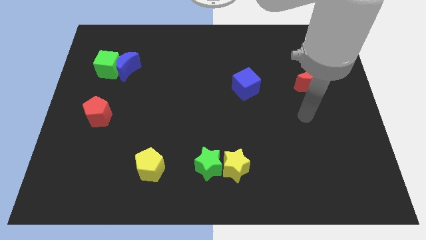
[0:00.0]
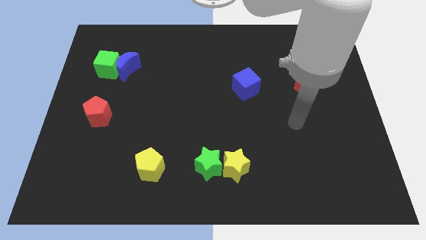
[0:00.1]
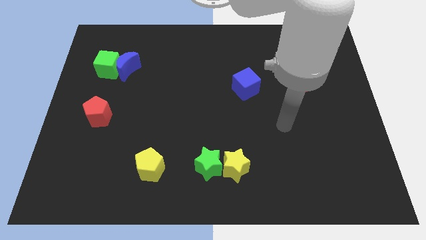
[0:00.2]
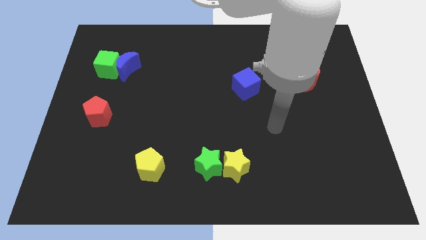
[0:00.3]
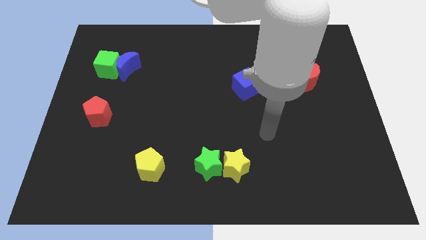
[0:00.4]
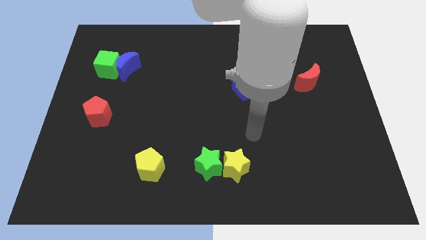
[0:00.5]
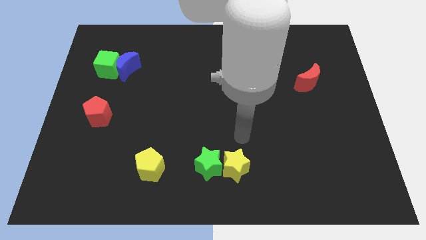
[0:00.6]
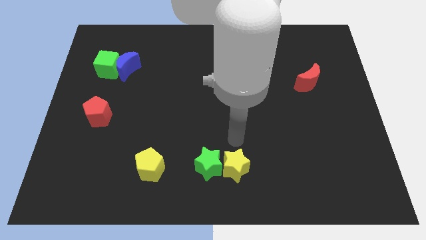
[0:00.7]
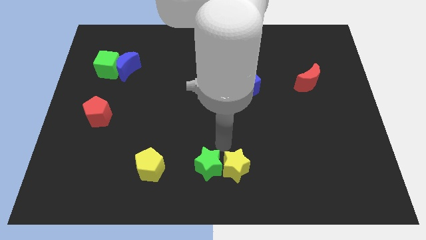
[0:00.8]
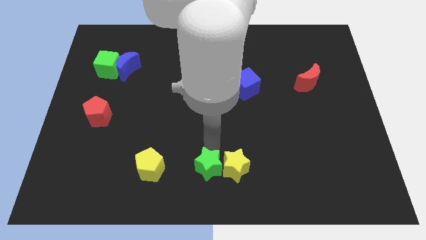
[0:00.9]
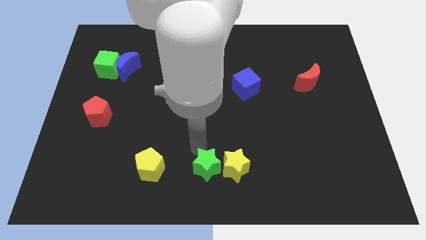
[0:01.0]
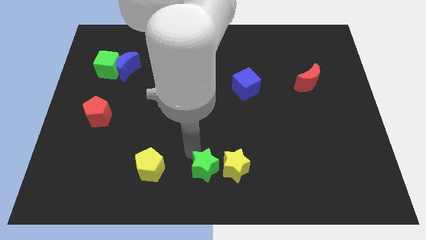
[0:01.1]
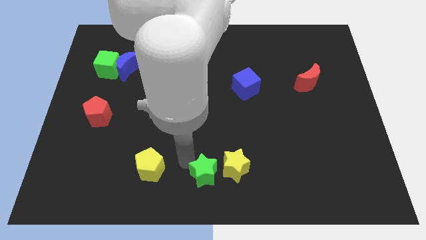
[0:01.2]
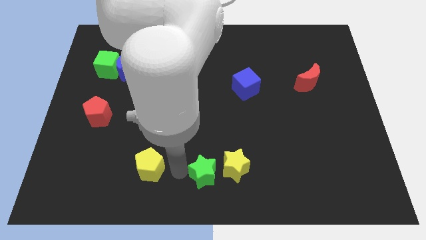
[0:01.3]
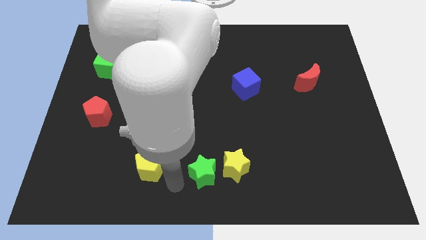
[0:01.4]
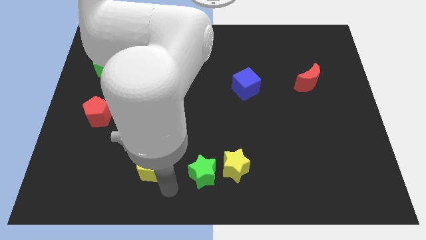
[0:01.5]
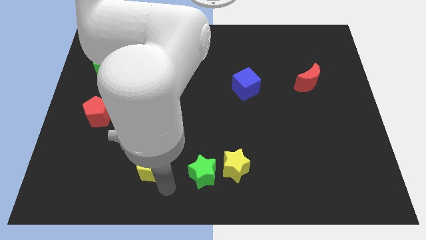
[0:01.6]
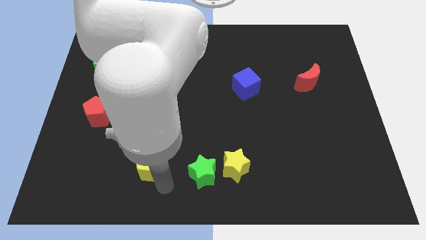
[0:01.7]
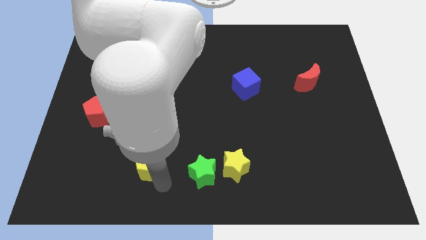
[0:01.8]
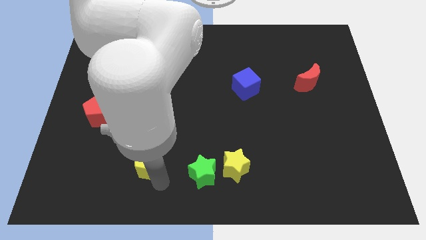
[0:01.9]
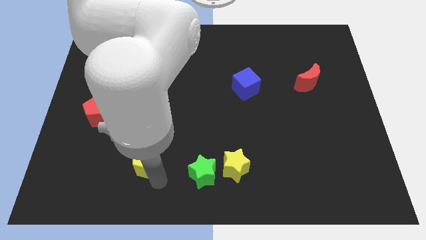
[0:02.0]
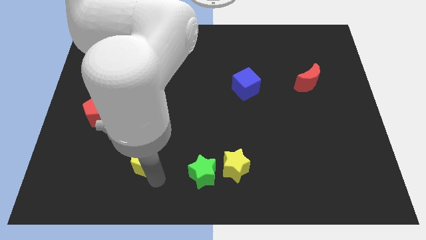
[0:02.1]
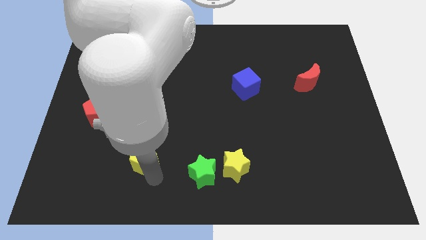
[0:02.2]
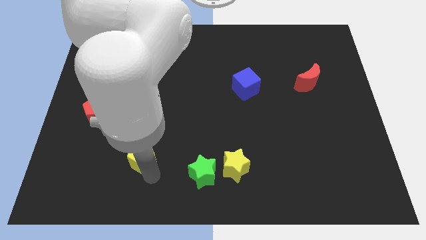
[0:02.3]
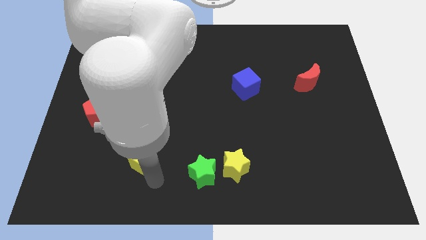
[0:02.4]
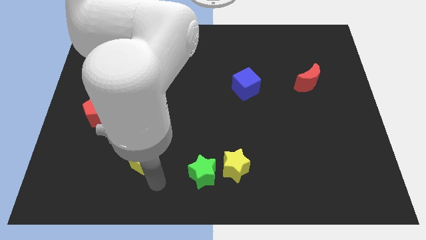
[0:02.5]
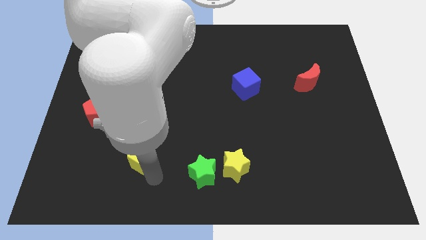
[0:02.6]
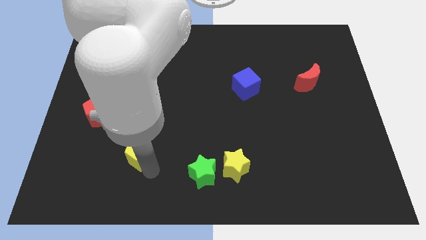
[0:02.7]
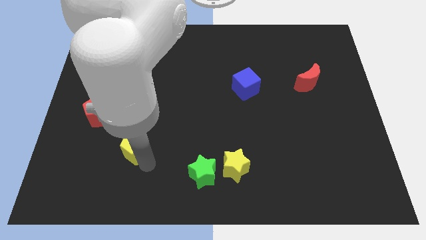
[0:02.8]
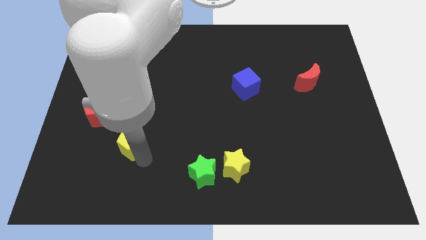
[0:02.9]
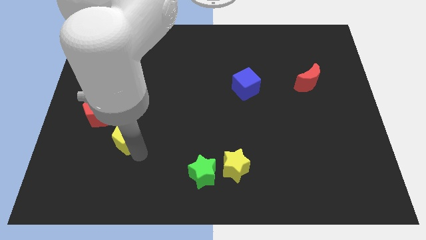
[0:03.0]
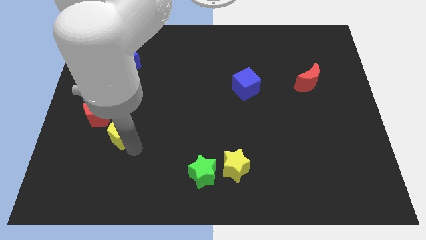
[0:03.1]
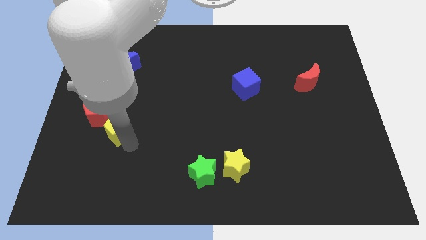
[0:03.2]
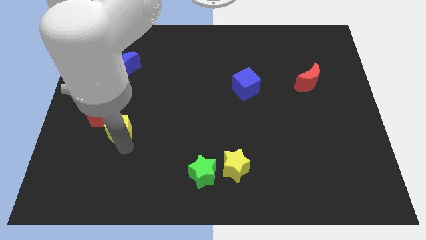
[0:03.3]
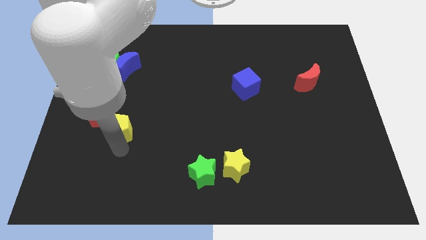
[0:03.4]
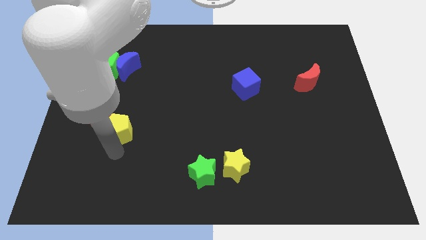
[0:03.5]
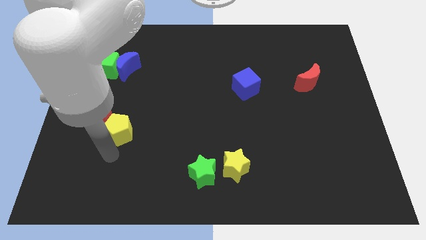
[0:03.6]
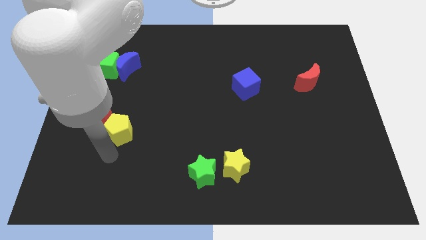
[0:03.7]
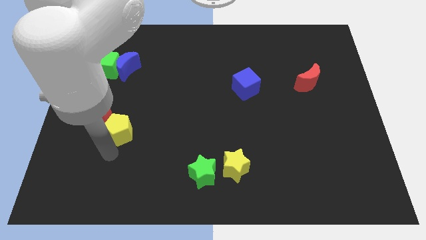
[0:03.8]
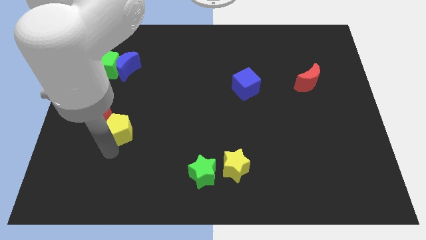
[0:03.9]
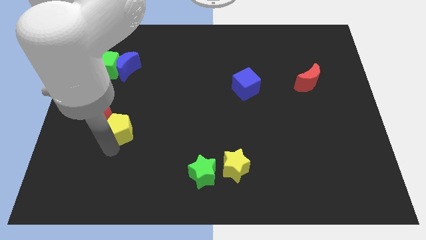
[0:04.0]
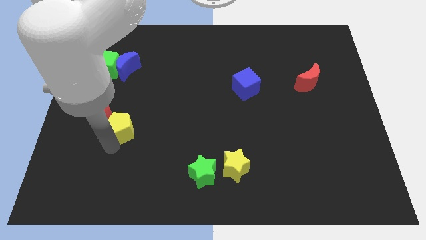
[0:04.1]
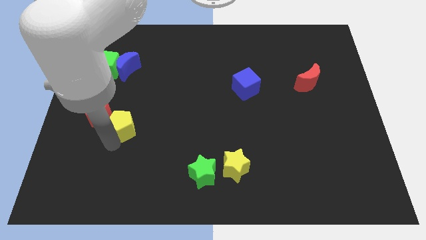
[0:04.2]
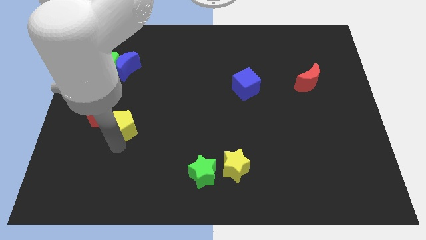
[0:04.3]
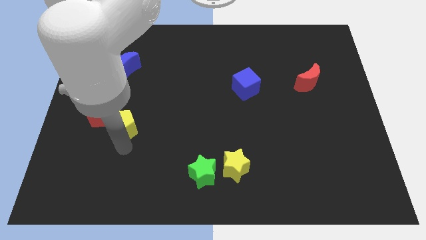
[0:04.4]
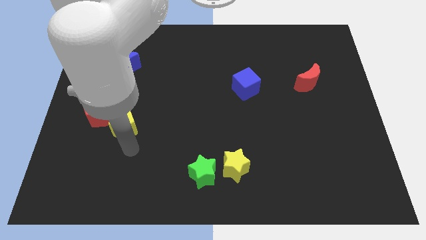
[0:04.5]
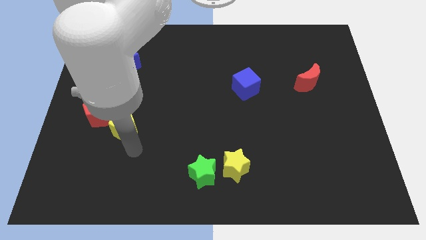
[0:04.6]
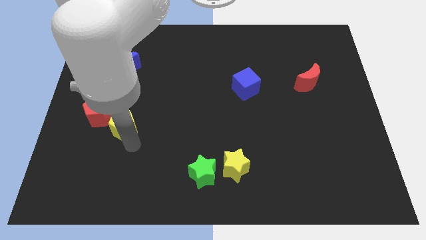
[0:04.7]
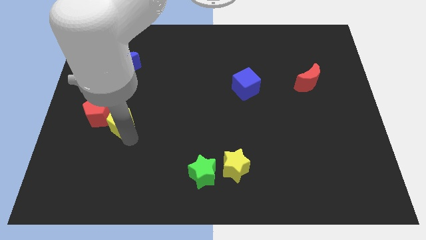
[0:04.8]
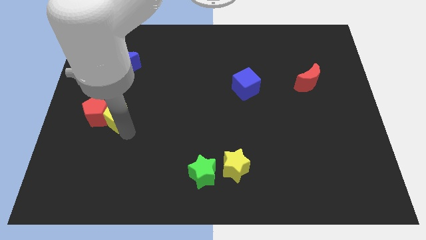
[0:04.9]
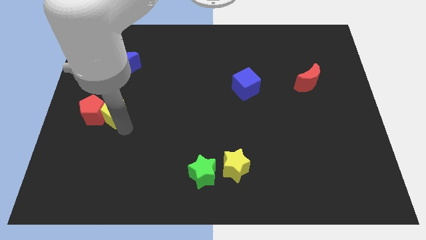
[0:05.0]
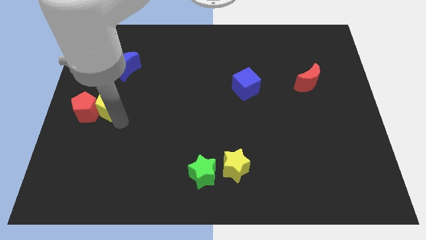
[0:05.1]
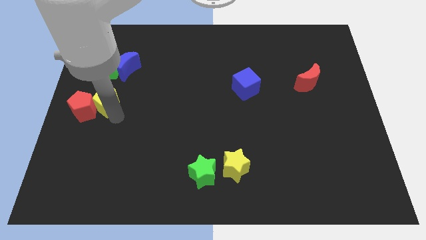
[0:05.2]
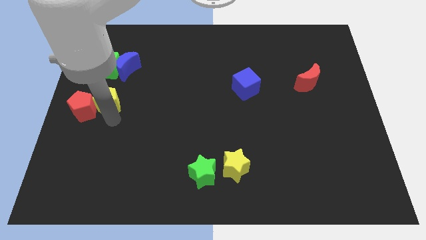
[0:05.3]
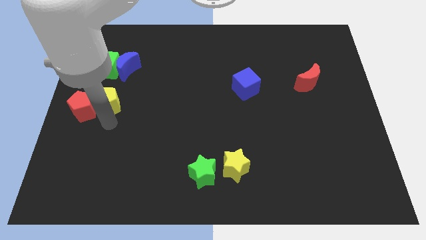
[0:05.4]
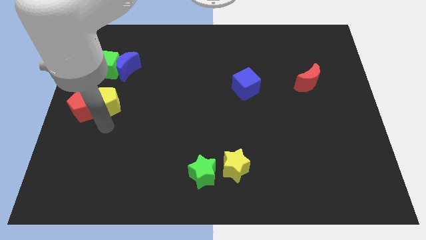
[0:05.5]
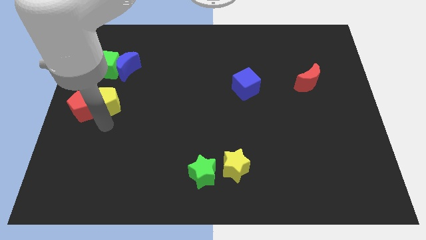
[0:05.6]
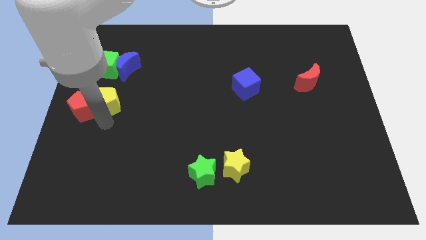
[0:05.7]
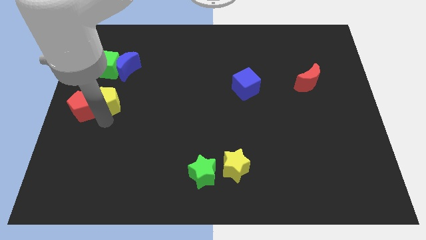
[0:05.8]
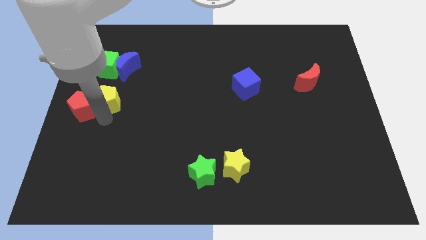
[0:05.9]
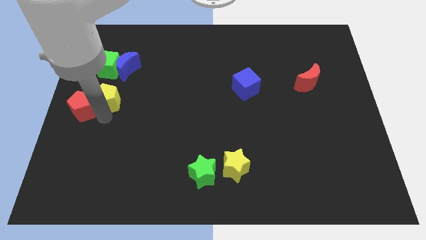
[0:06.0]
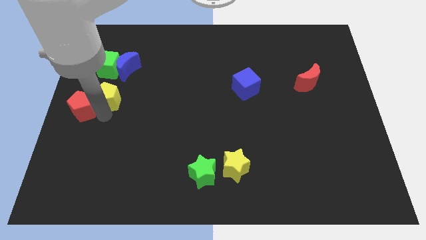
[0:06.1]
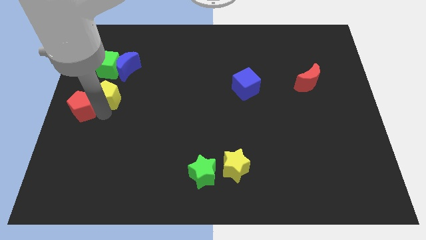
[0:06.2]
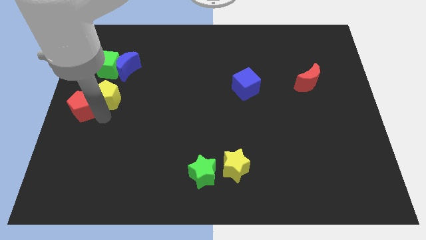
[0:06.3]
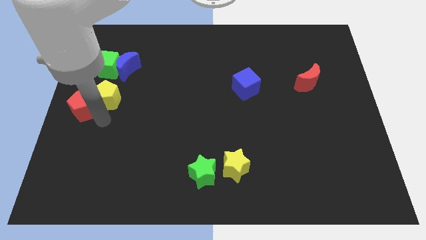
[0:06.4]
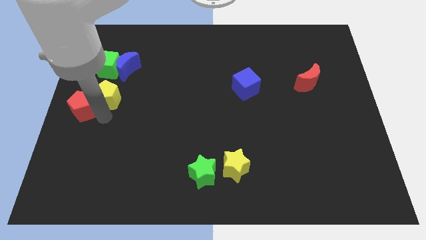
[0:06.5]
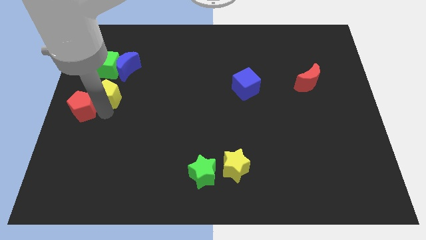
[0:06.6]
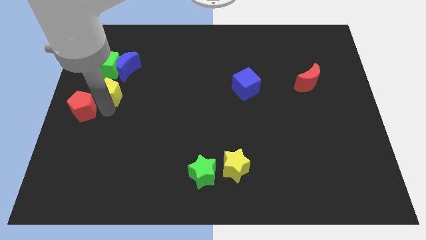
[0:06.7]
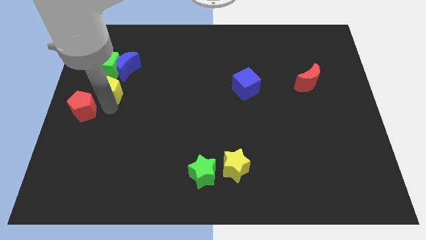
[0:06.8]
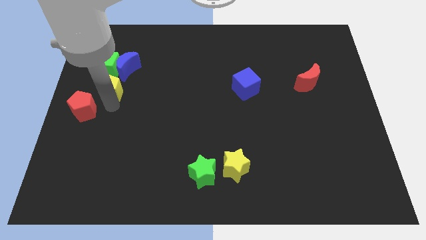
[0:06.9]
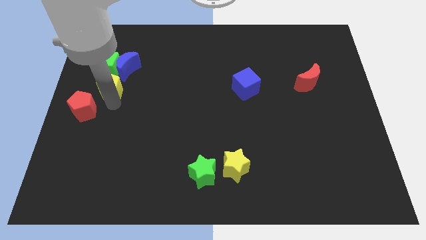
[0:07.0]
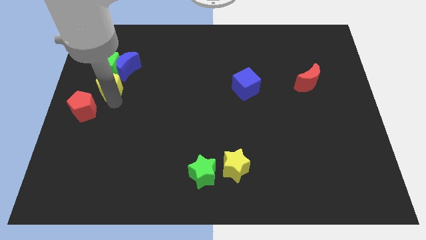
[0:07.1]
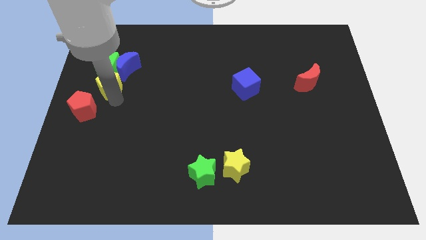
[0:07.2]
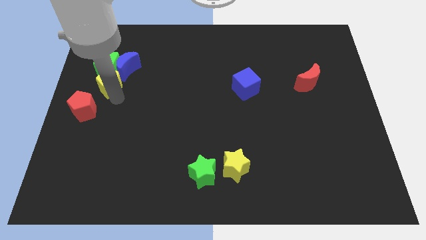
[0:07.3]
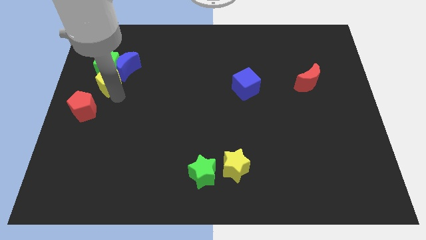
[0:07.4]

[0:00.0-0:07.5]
push the yellow pentagon to the green cube
